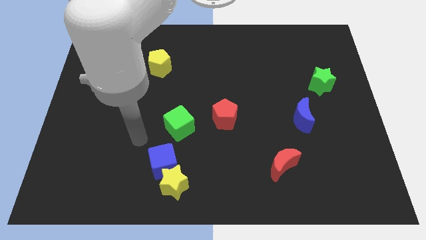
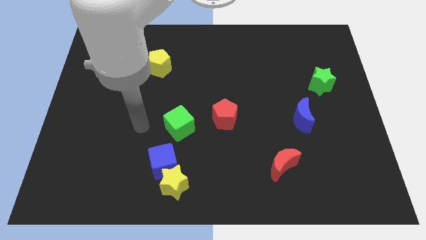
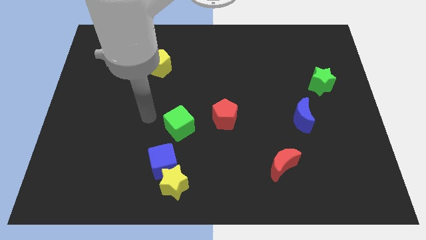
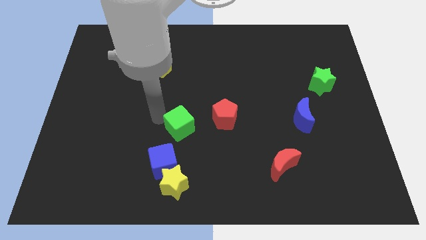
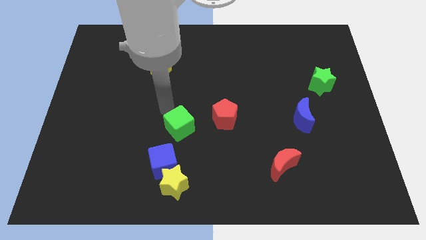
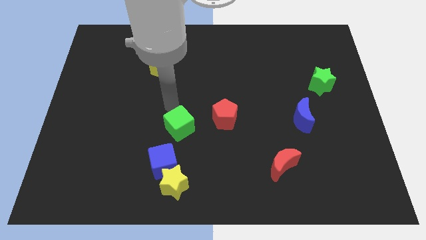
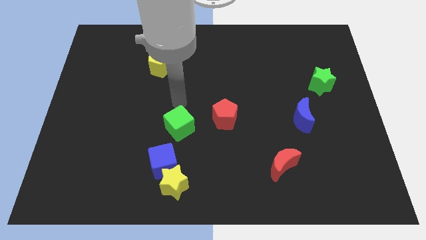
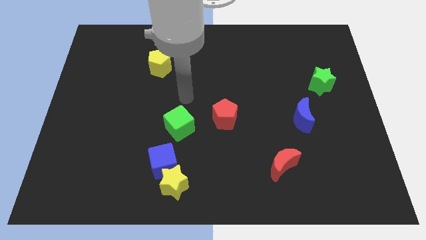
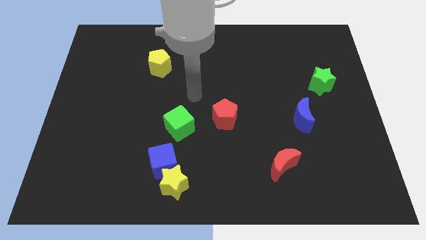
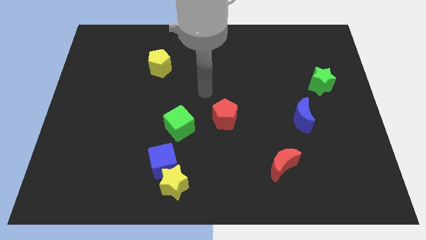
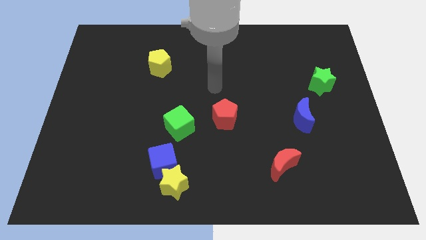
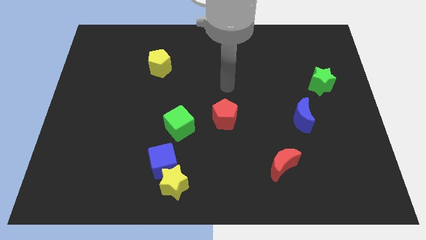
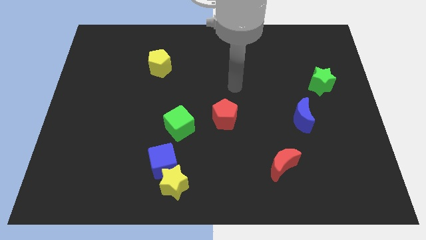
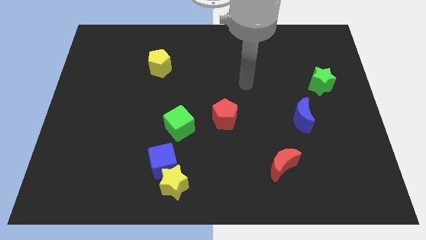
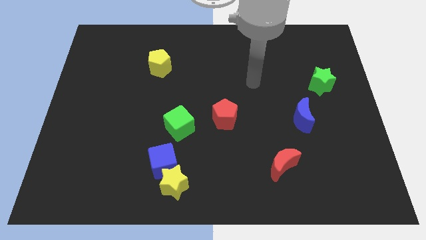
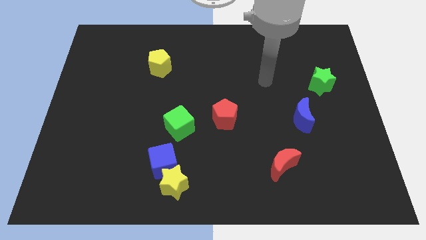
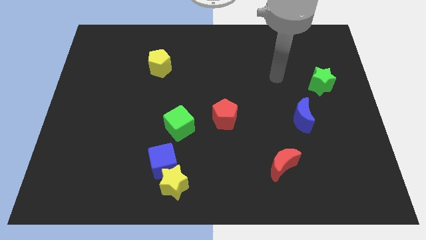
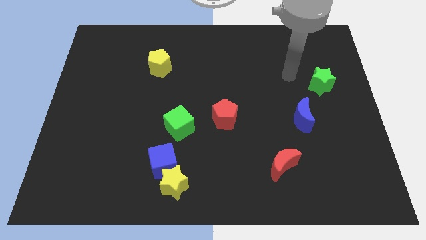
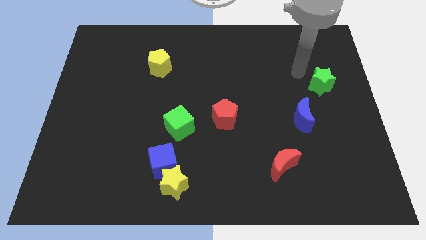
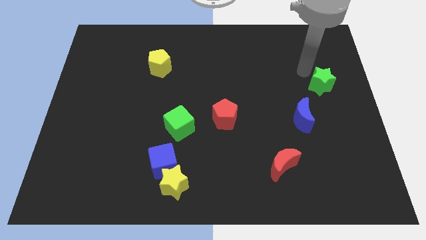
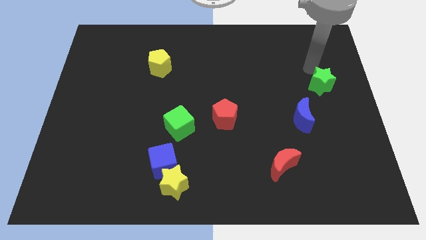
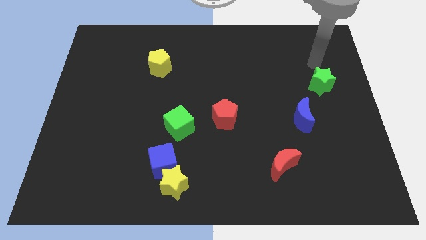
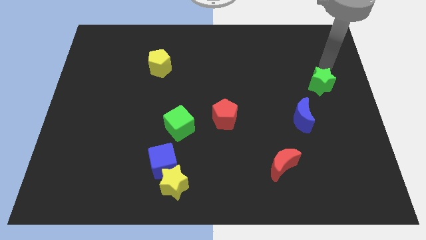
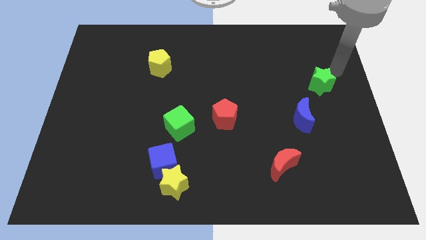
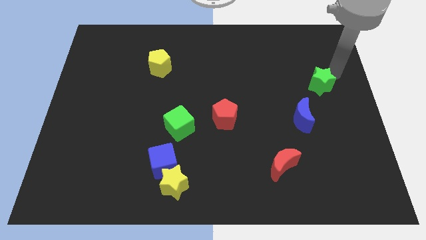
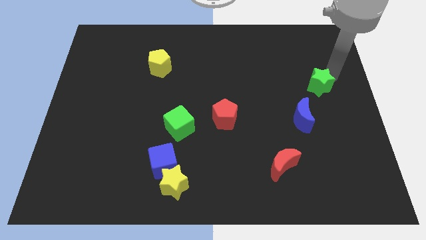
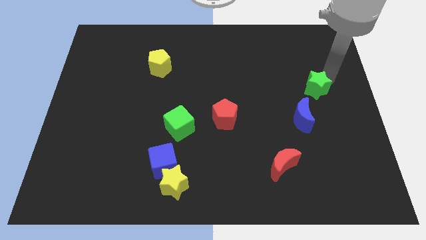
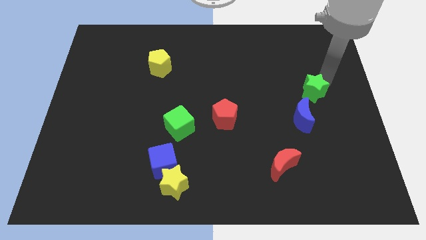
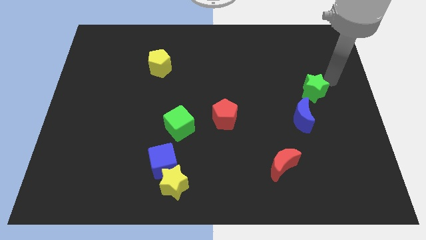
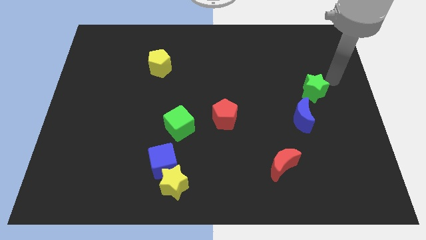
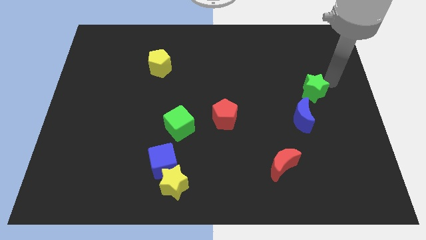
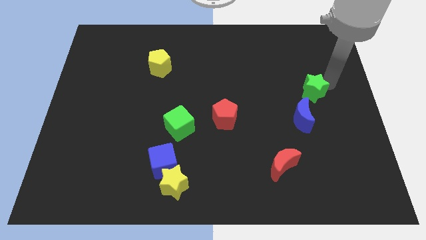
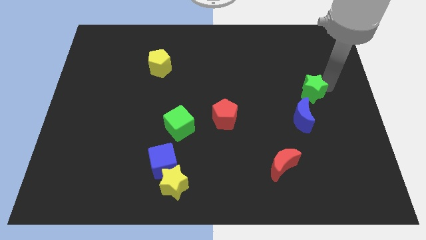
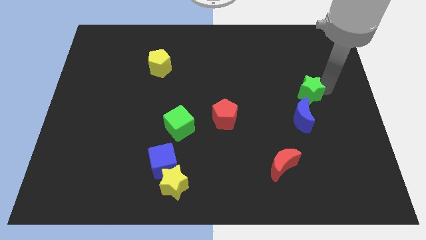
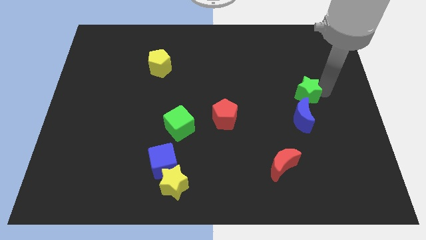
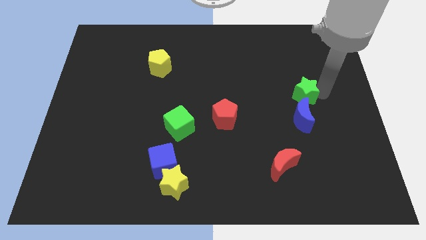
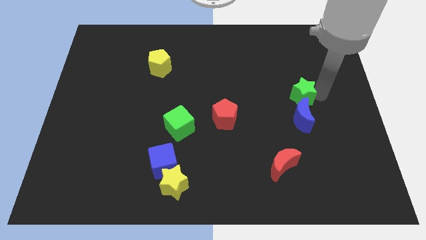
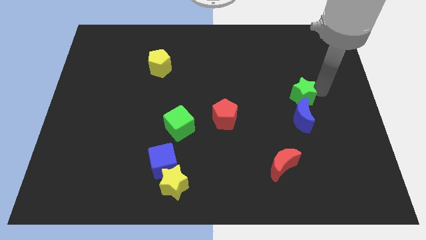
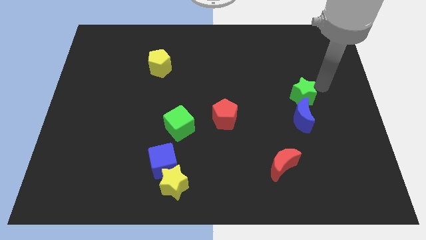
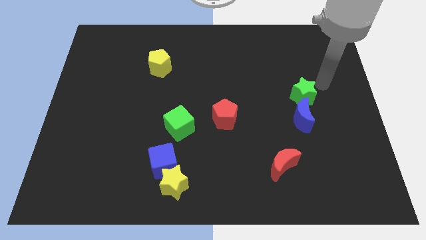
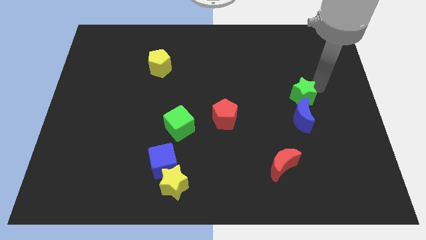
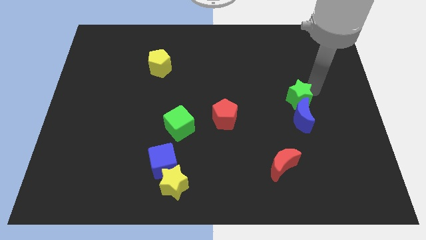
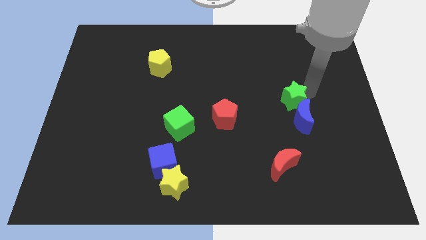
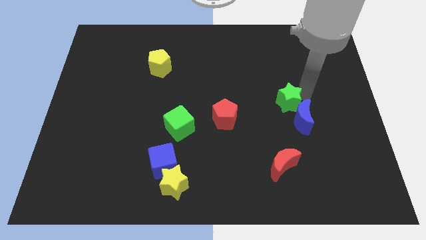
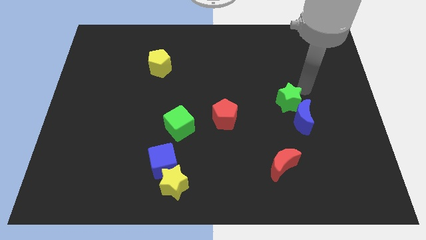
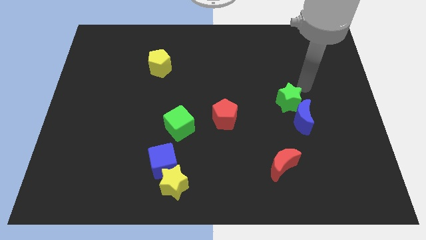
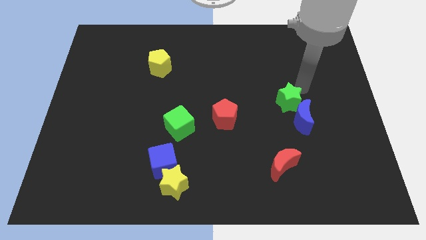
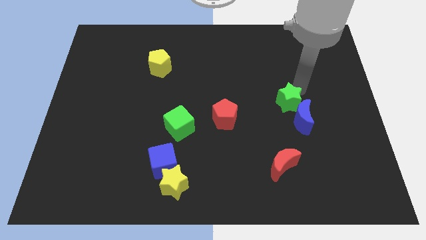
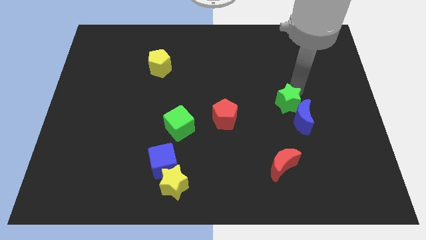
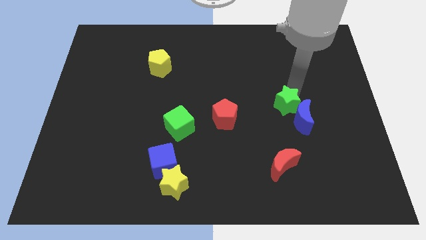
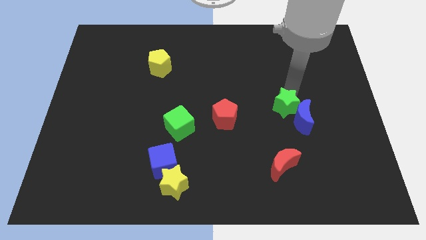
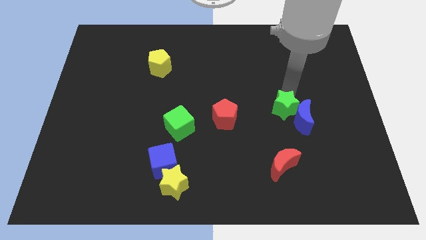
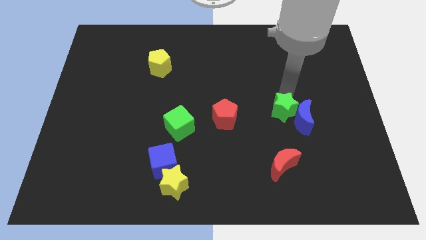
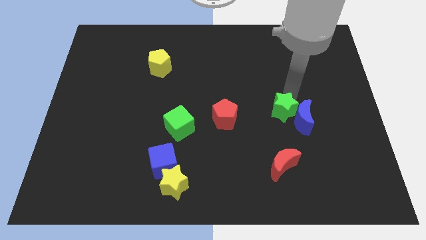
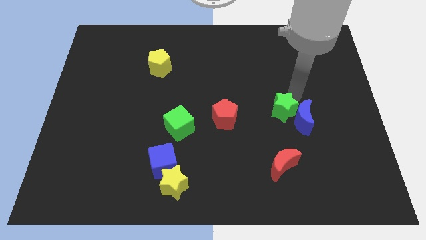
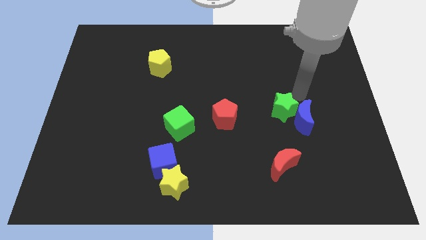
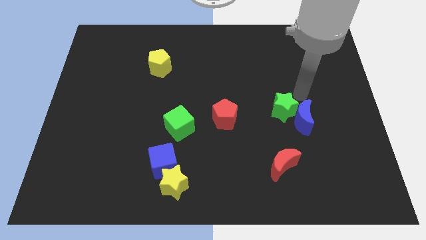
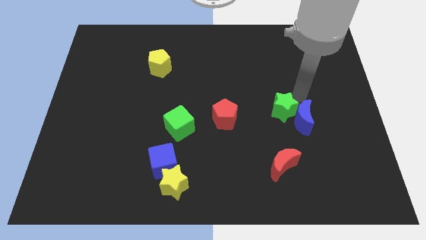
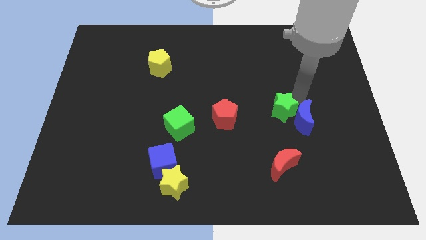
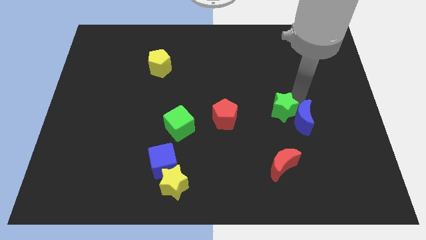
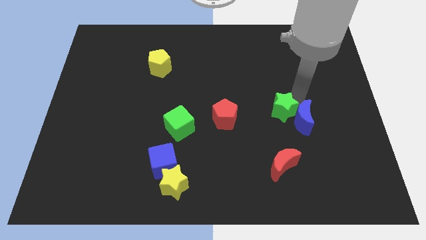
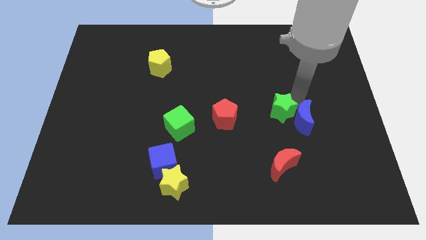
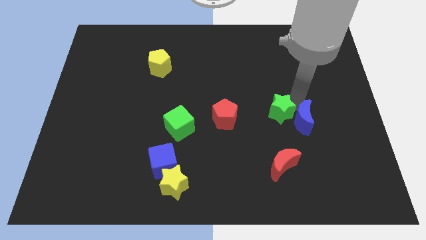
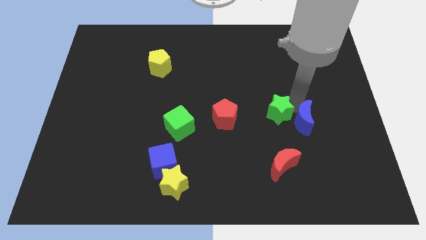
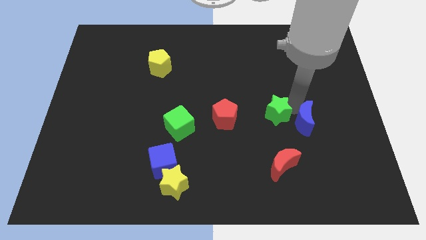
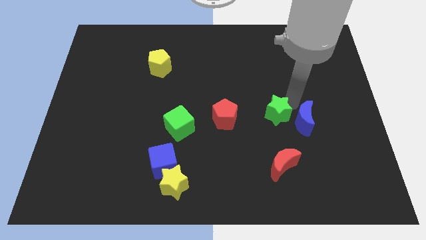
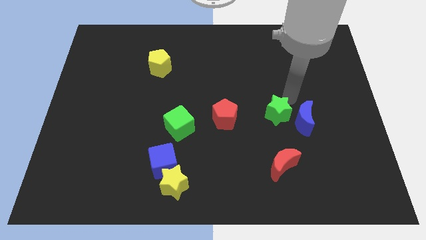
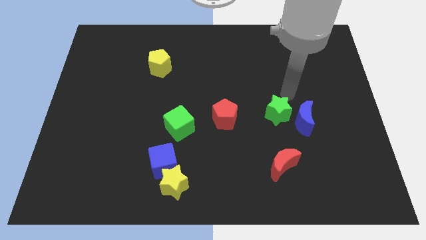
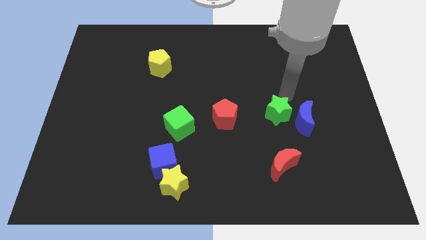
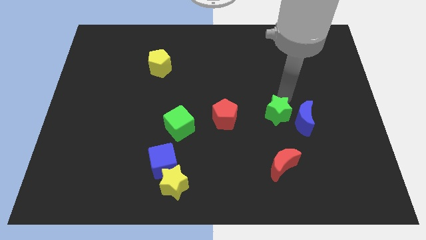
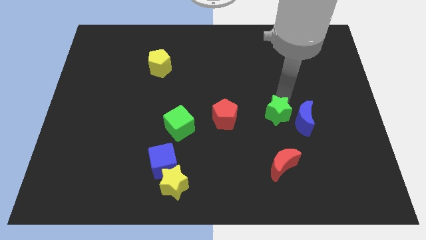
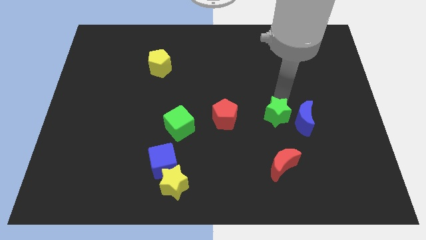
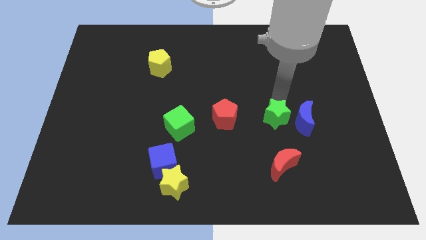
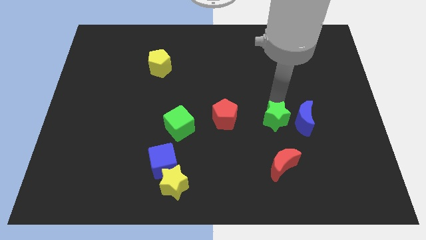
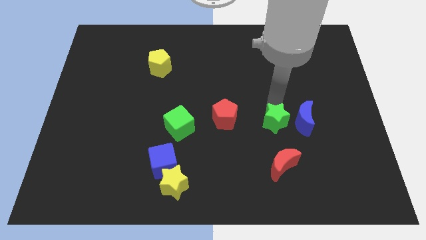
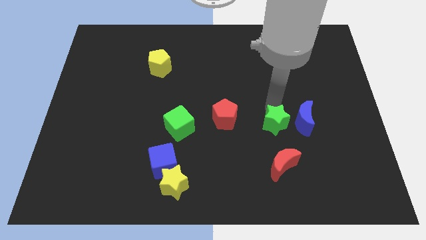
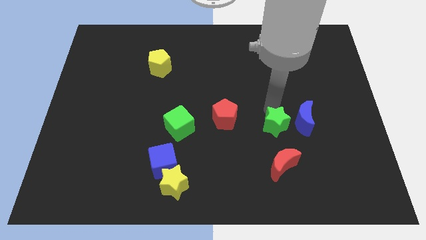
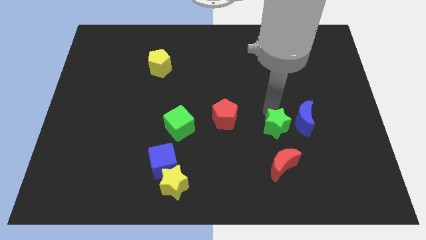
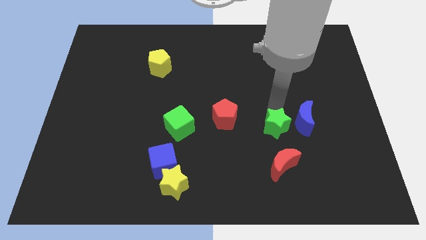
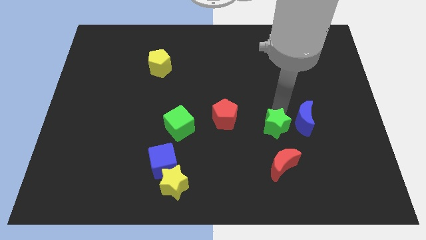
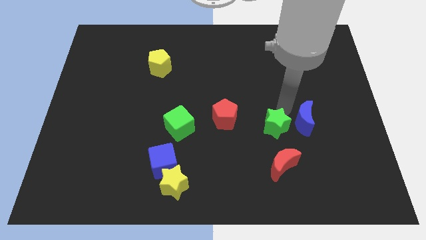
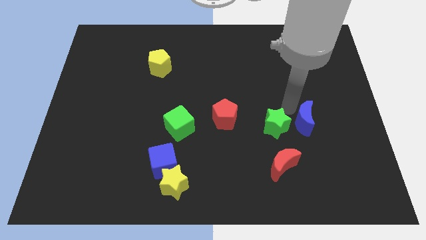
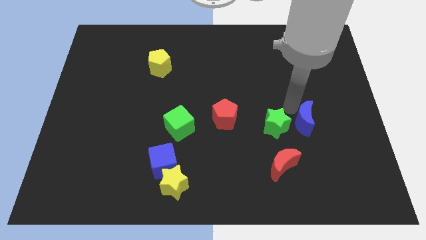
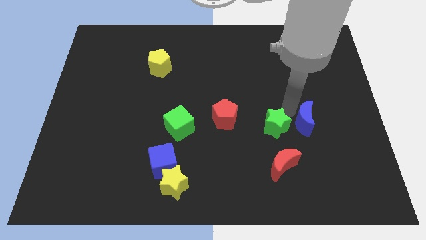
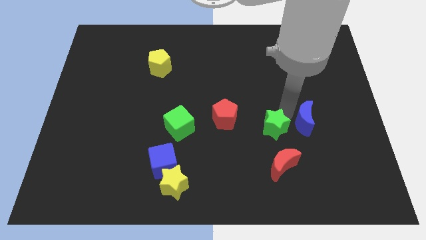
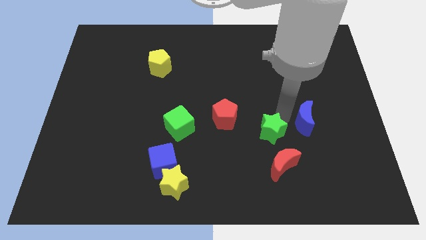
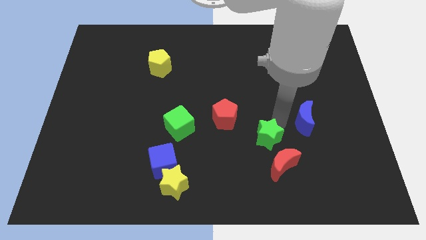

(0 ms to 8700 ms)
slide the green star downwards and left diagonally
